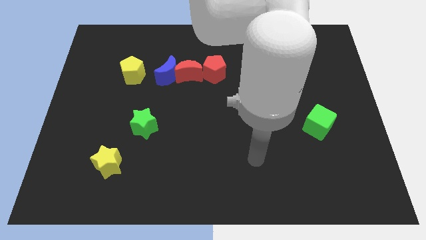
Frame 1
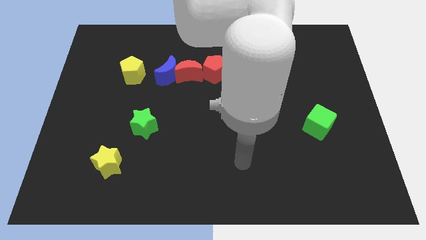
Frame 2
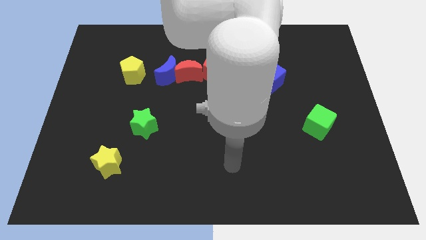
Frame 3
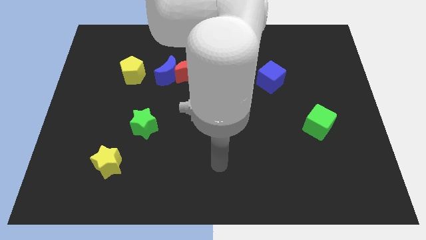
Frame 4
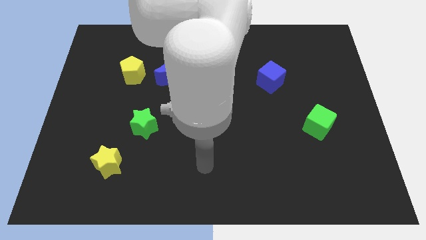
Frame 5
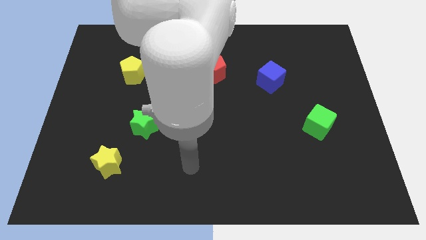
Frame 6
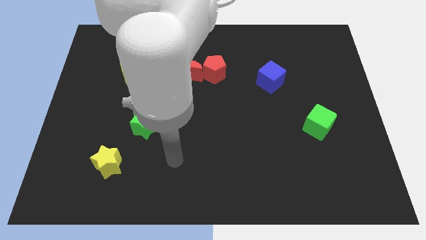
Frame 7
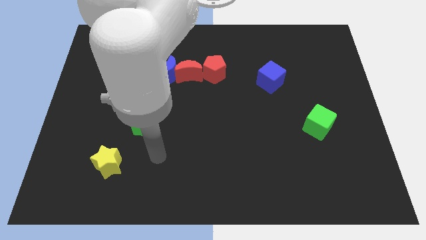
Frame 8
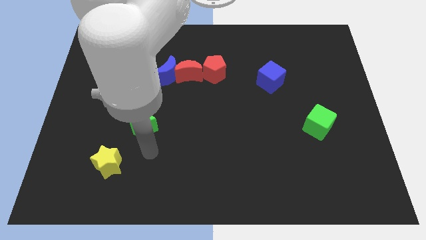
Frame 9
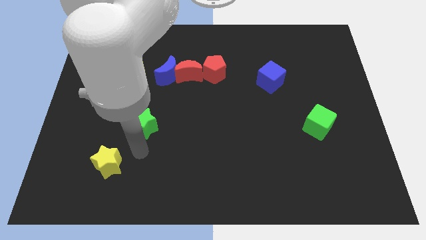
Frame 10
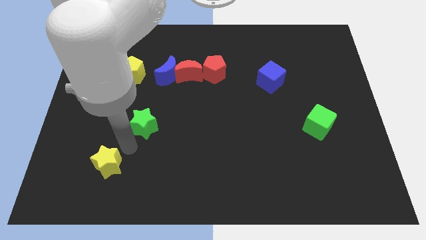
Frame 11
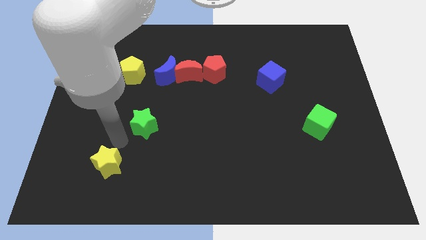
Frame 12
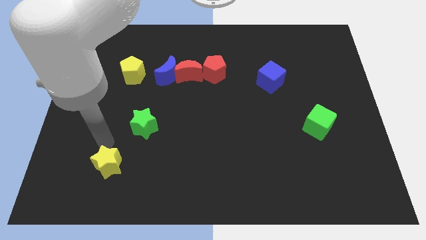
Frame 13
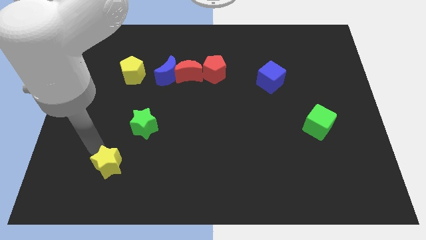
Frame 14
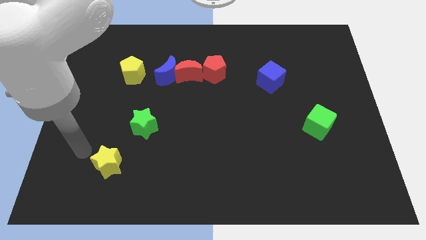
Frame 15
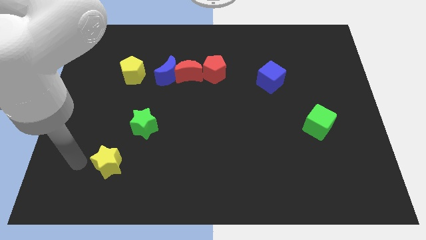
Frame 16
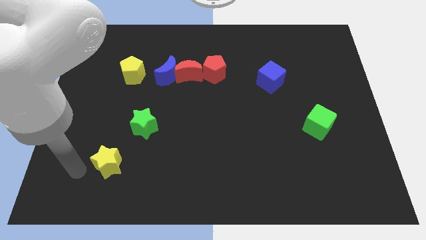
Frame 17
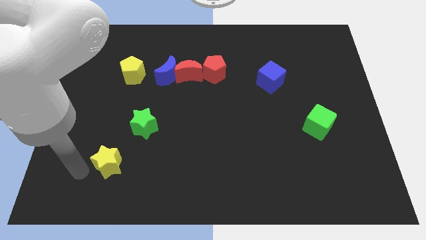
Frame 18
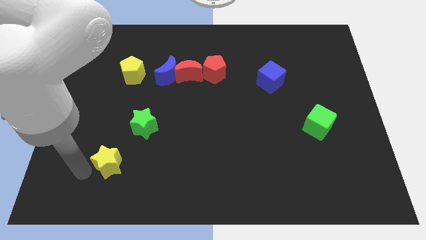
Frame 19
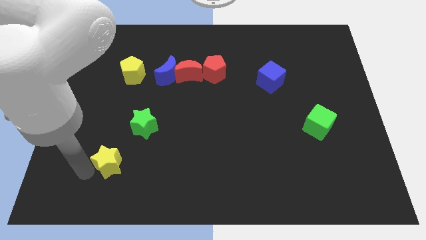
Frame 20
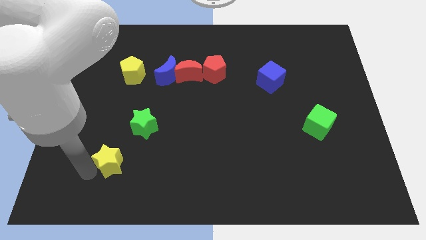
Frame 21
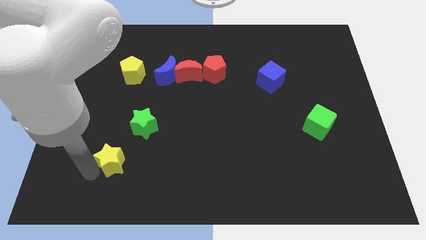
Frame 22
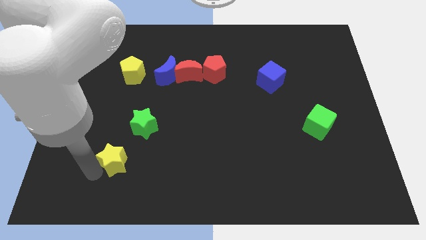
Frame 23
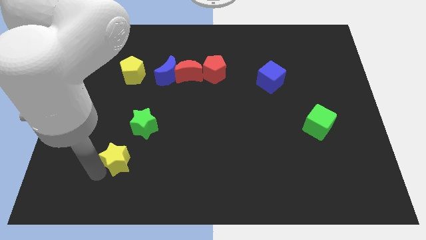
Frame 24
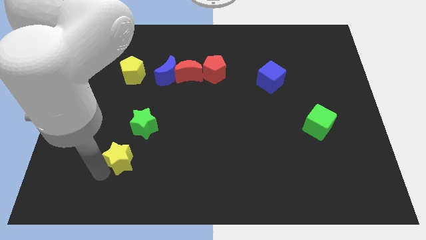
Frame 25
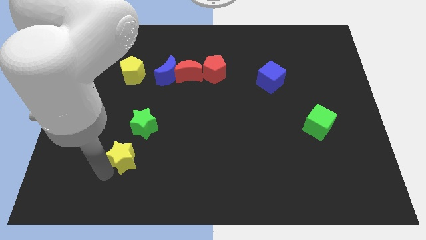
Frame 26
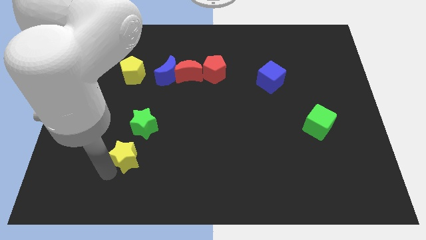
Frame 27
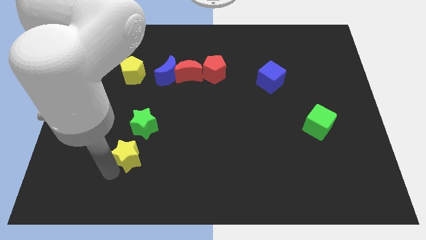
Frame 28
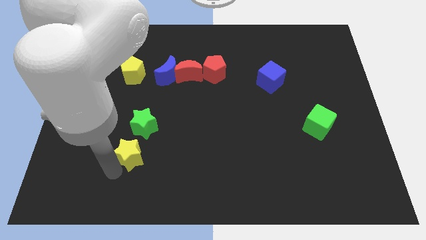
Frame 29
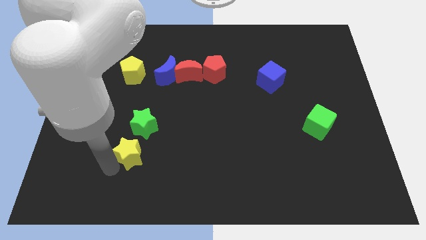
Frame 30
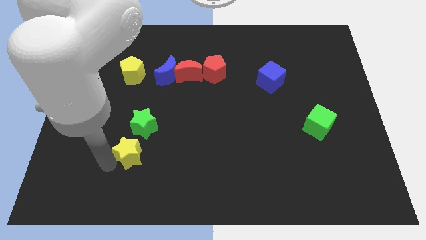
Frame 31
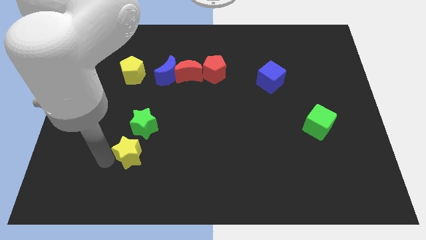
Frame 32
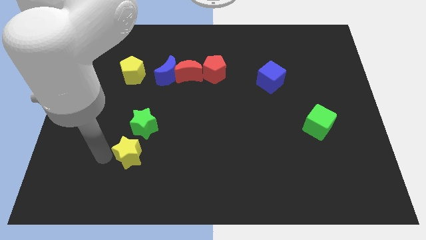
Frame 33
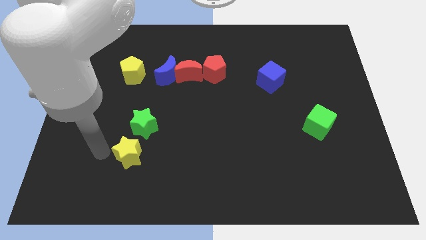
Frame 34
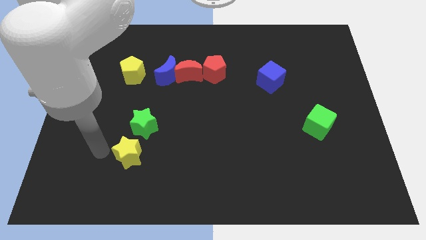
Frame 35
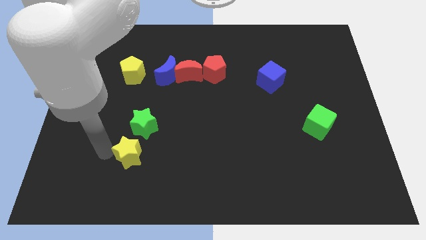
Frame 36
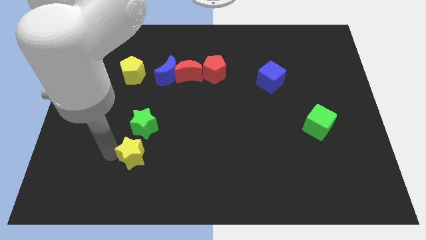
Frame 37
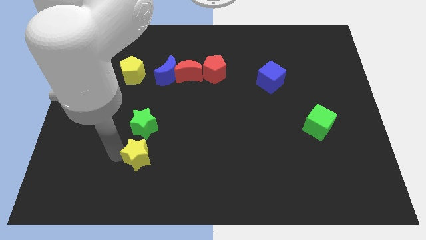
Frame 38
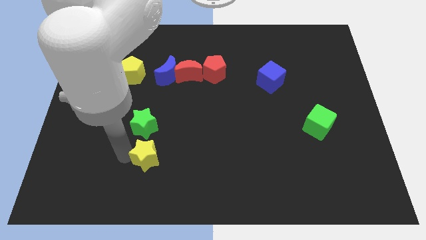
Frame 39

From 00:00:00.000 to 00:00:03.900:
slide the yellow star a little right

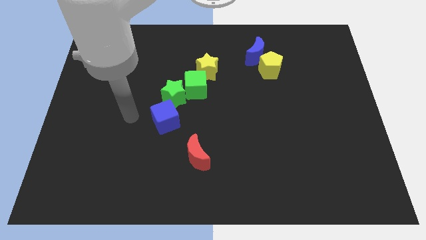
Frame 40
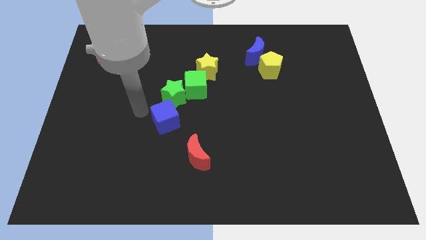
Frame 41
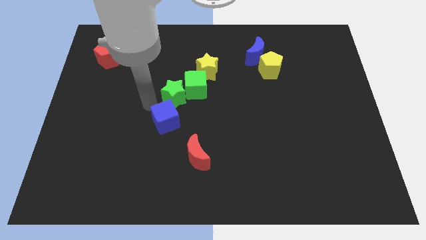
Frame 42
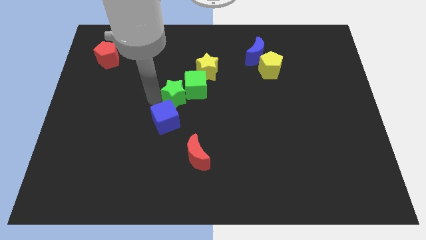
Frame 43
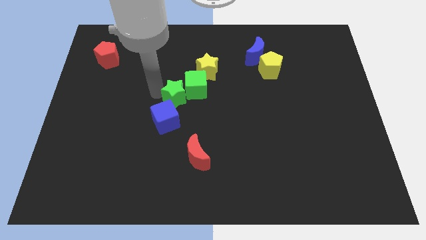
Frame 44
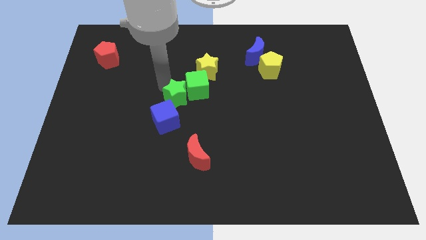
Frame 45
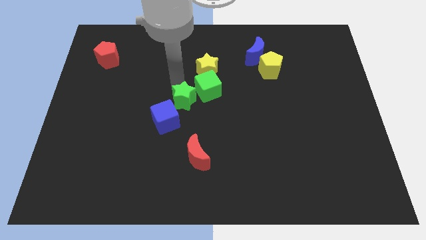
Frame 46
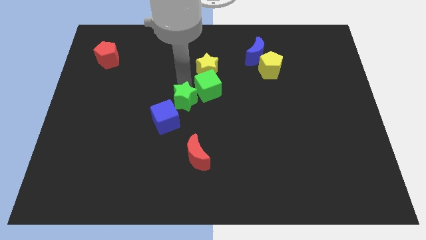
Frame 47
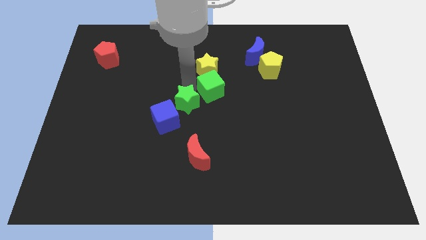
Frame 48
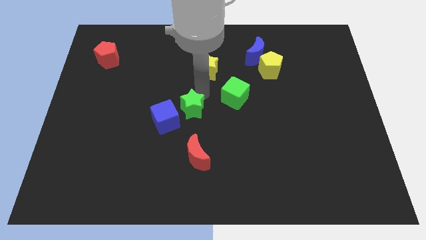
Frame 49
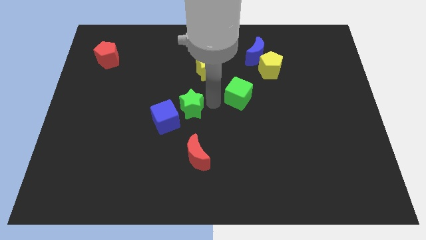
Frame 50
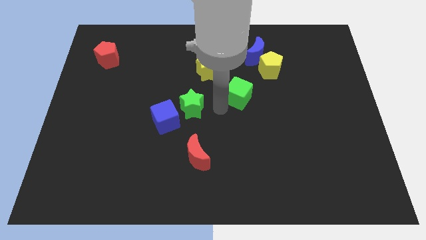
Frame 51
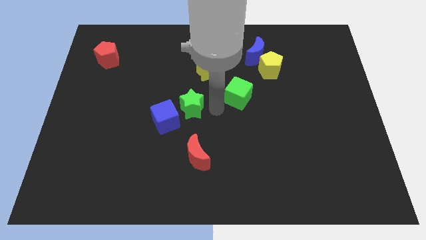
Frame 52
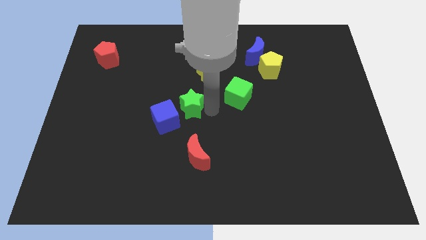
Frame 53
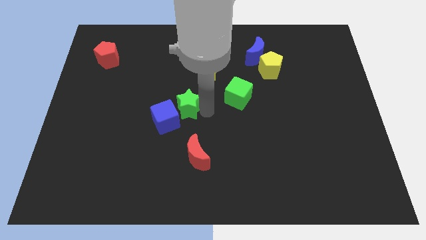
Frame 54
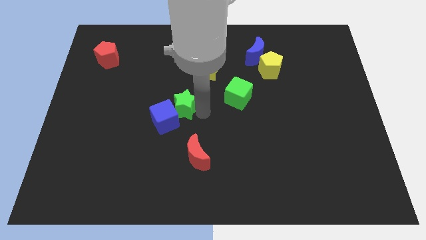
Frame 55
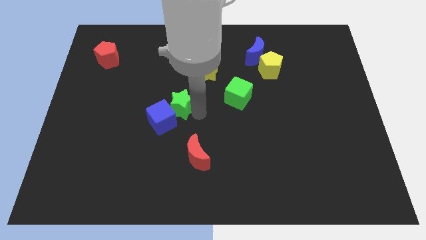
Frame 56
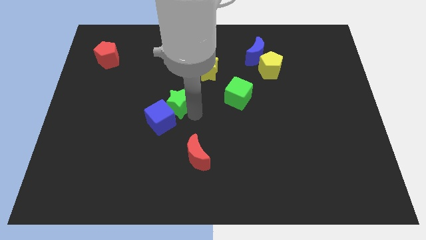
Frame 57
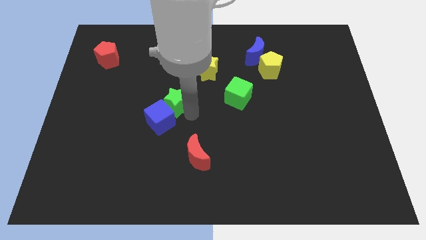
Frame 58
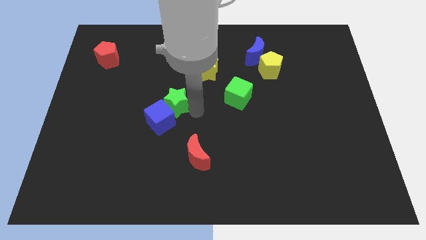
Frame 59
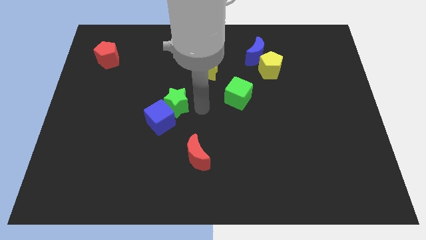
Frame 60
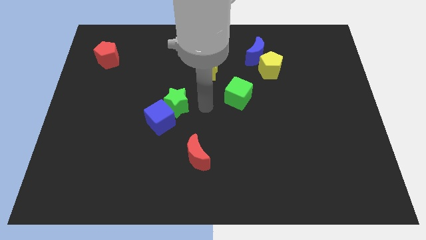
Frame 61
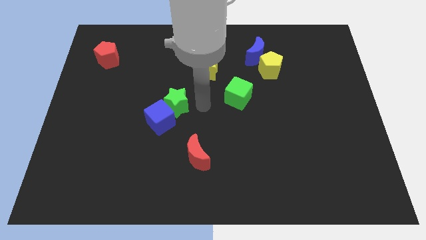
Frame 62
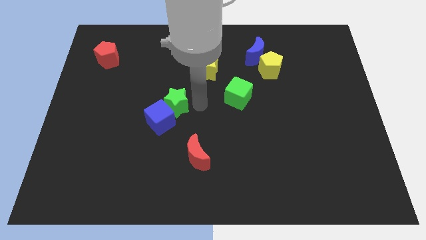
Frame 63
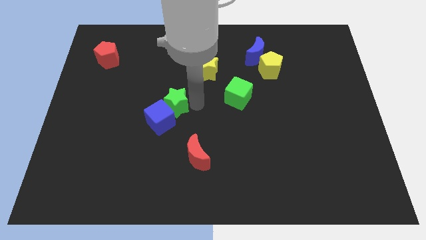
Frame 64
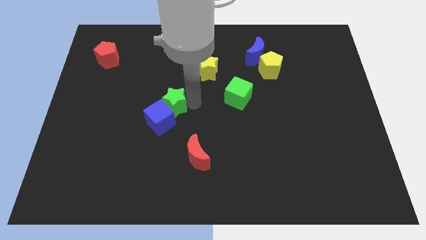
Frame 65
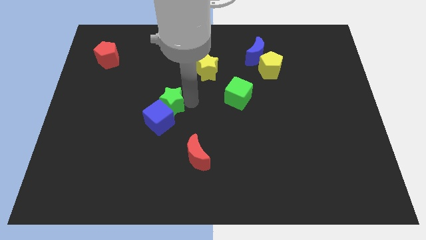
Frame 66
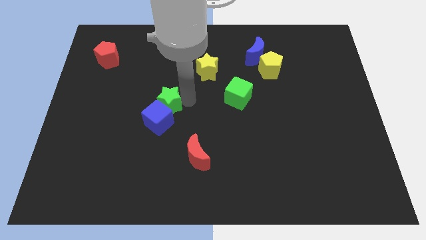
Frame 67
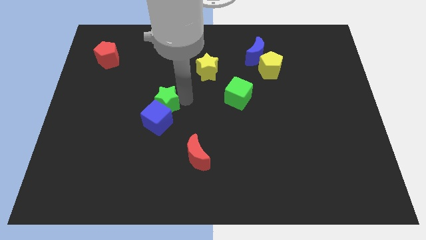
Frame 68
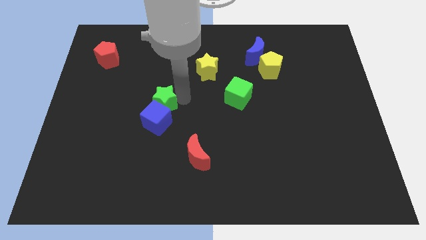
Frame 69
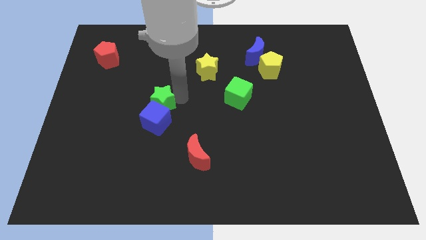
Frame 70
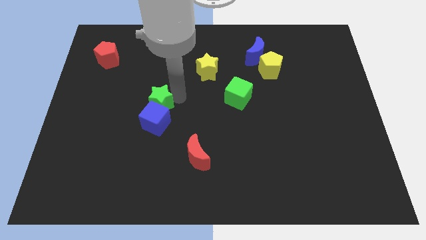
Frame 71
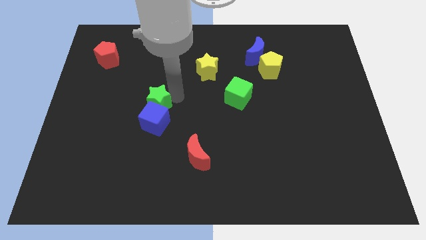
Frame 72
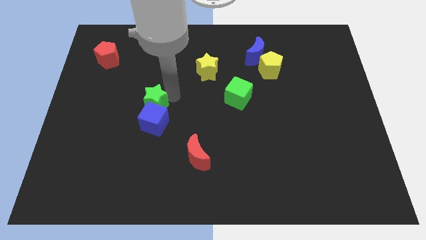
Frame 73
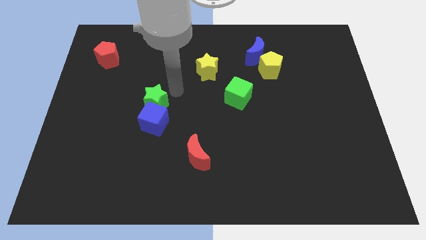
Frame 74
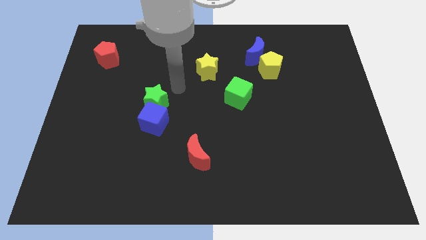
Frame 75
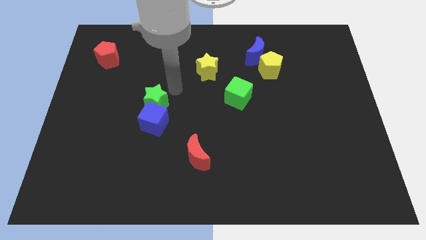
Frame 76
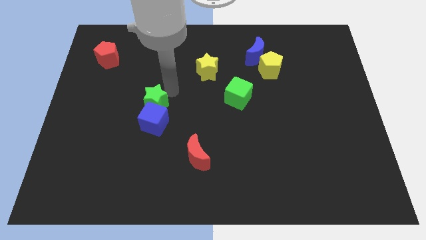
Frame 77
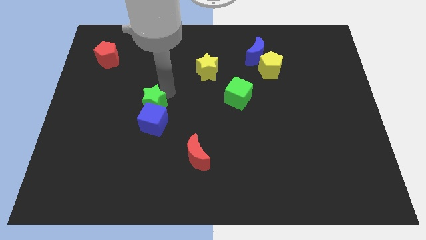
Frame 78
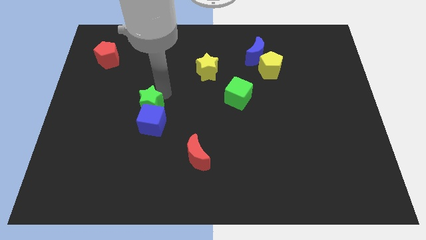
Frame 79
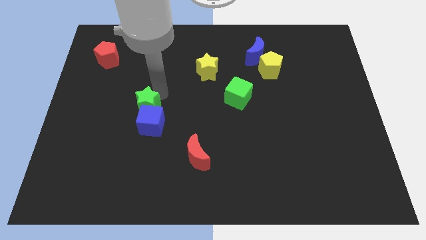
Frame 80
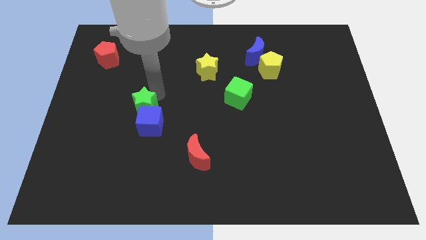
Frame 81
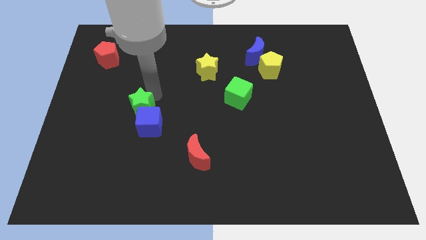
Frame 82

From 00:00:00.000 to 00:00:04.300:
slide the green star diagonally down and to the left a bit
